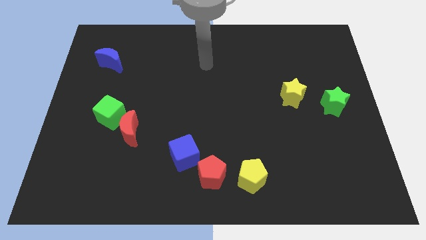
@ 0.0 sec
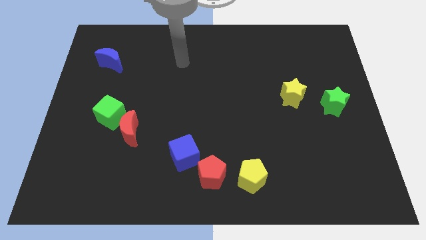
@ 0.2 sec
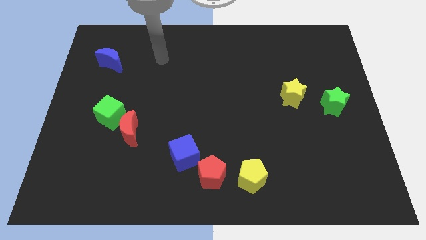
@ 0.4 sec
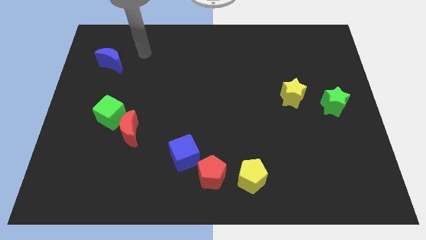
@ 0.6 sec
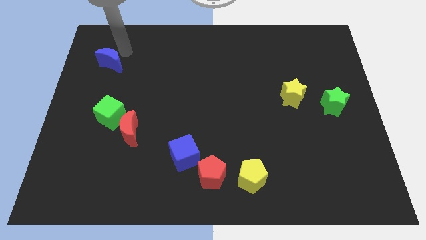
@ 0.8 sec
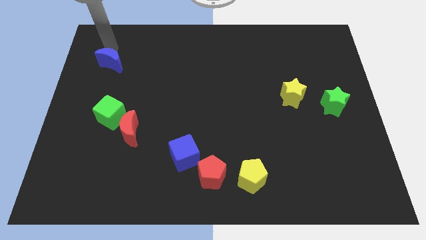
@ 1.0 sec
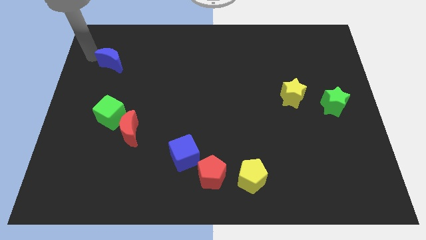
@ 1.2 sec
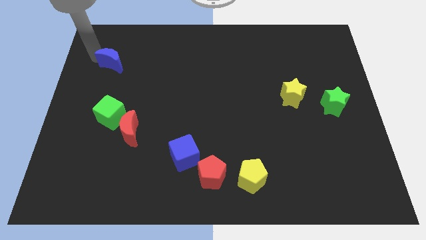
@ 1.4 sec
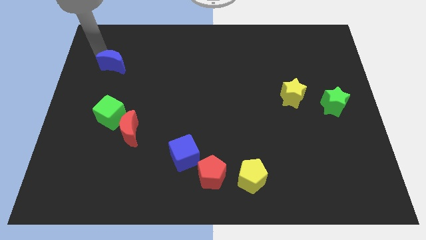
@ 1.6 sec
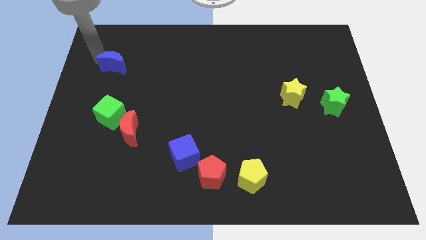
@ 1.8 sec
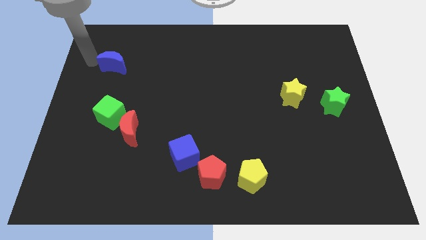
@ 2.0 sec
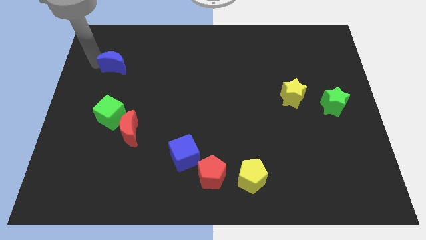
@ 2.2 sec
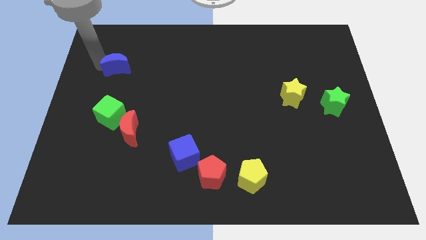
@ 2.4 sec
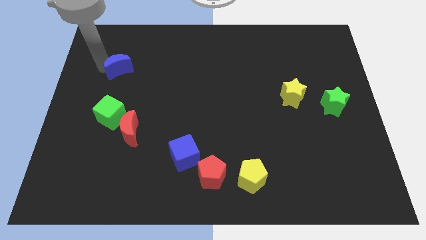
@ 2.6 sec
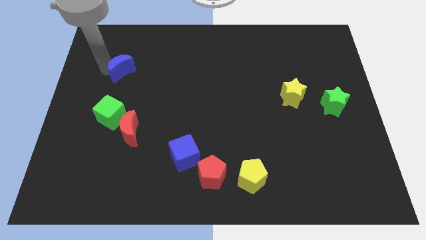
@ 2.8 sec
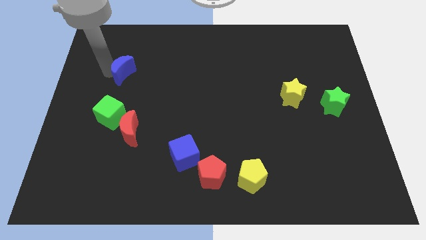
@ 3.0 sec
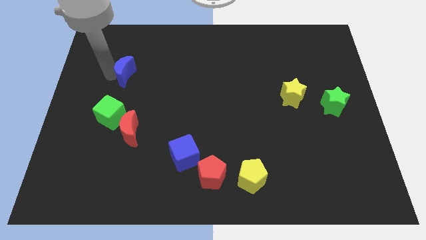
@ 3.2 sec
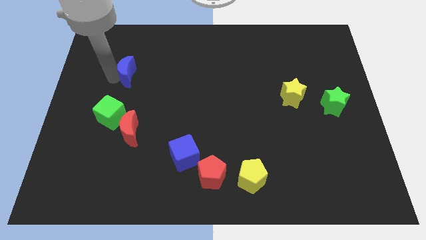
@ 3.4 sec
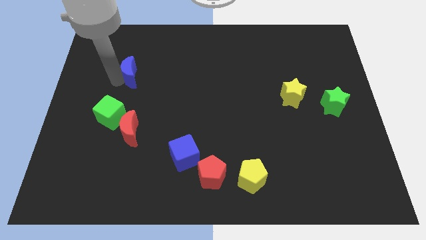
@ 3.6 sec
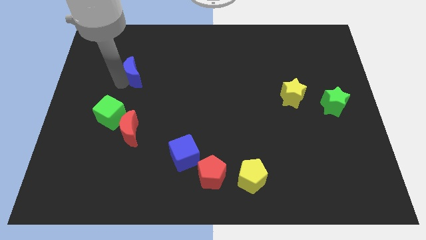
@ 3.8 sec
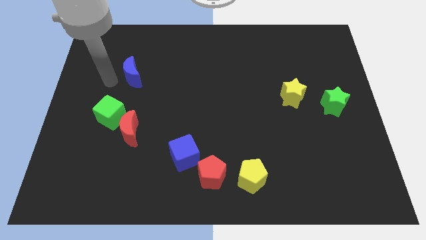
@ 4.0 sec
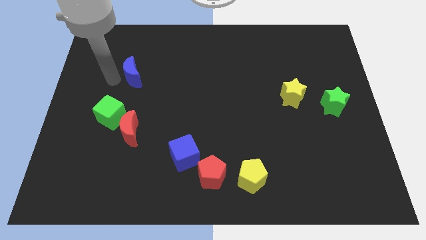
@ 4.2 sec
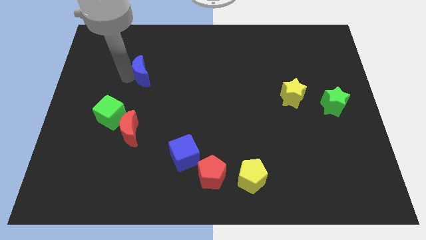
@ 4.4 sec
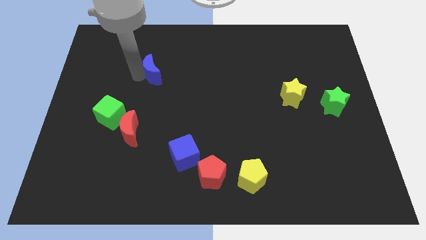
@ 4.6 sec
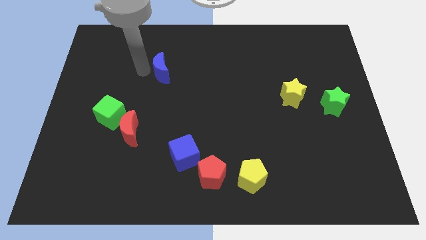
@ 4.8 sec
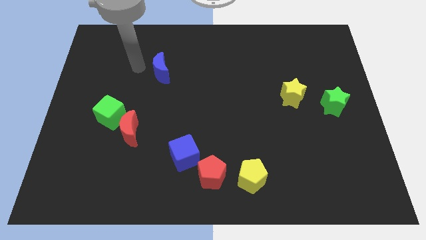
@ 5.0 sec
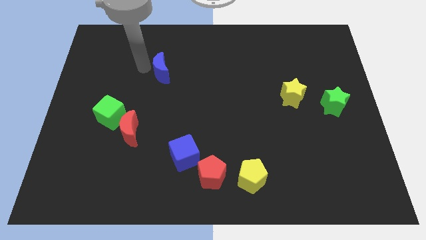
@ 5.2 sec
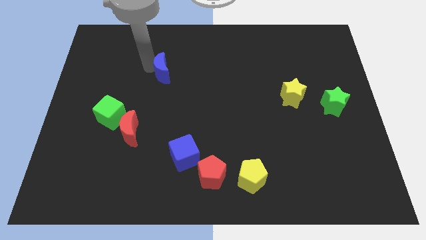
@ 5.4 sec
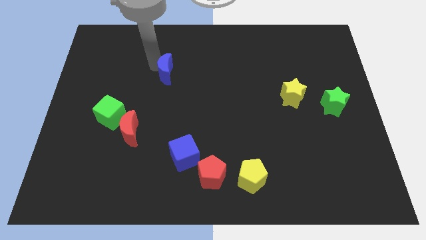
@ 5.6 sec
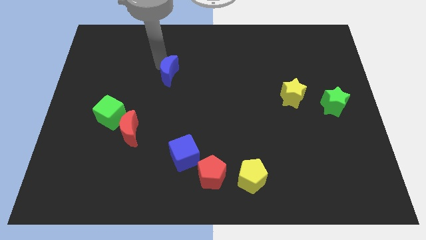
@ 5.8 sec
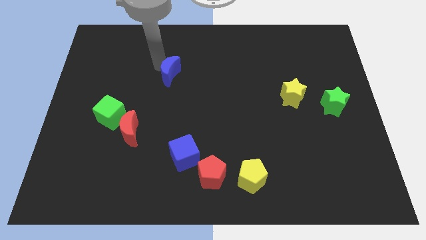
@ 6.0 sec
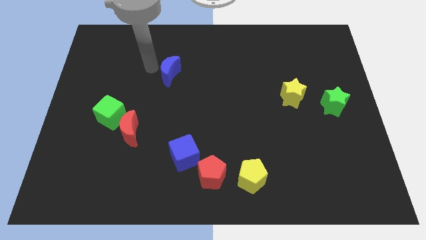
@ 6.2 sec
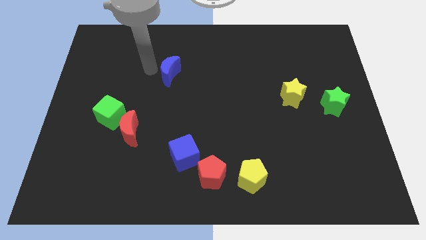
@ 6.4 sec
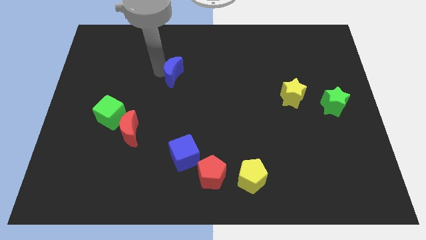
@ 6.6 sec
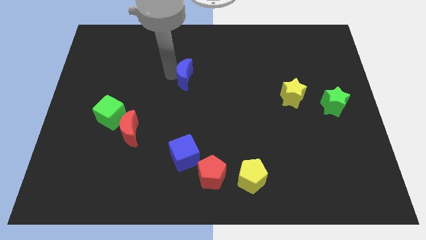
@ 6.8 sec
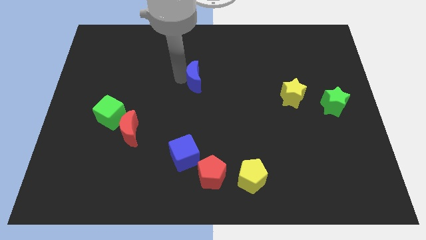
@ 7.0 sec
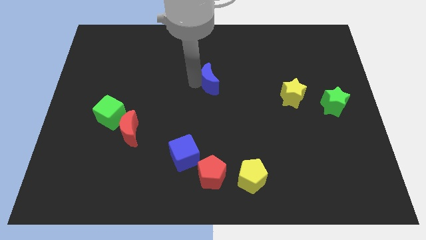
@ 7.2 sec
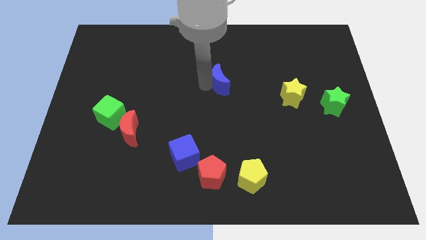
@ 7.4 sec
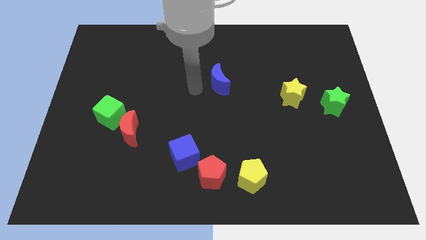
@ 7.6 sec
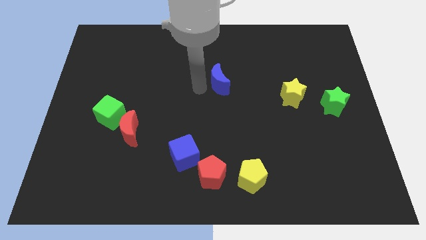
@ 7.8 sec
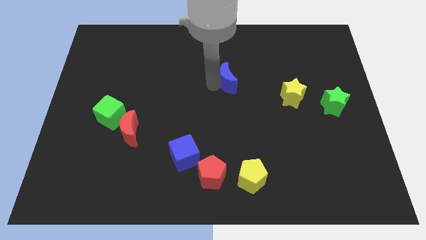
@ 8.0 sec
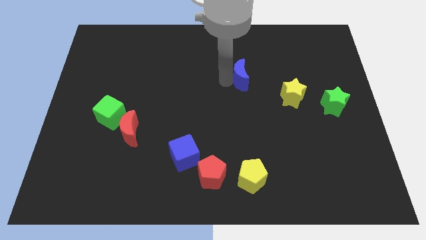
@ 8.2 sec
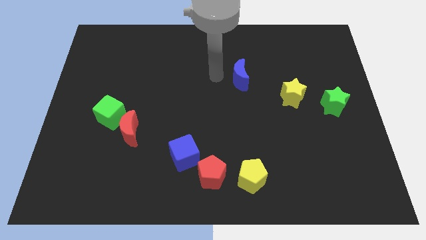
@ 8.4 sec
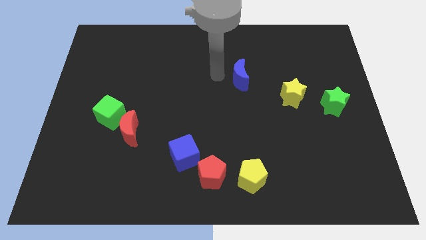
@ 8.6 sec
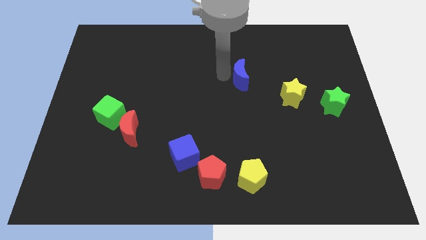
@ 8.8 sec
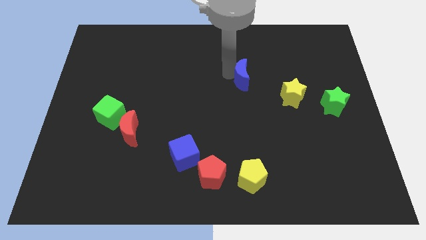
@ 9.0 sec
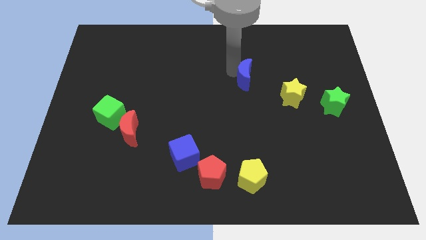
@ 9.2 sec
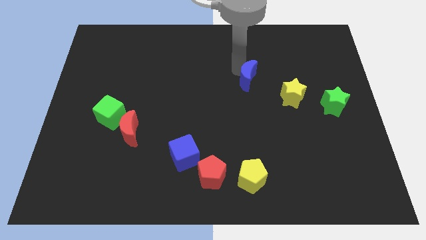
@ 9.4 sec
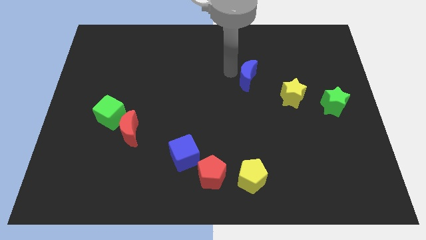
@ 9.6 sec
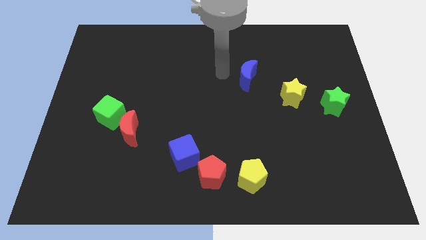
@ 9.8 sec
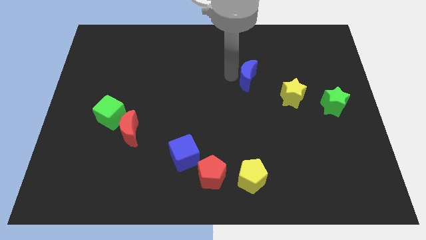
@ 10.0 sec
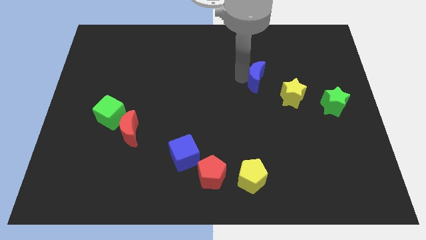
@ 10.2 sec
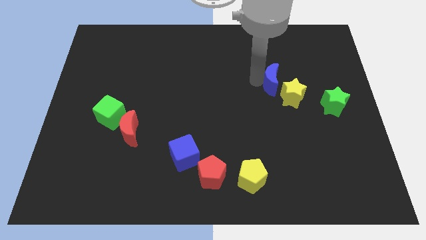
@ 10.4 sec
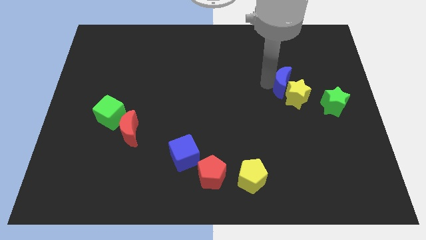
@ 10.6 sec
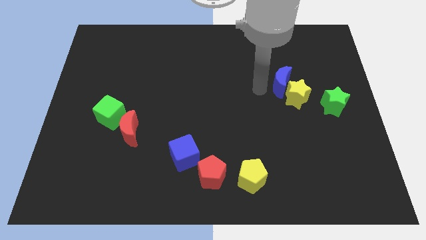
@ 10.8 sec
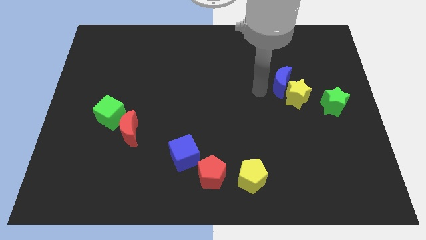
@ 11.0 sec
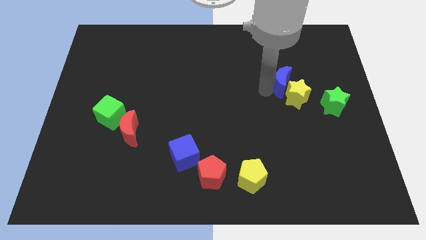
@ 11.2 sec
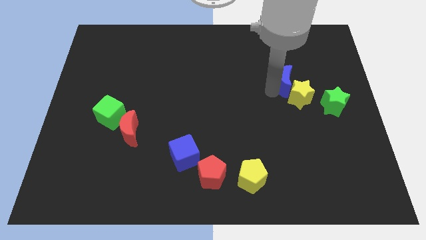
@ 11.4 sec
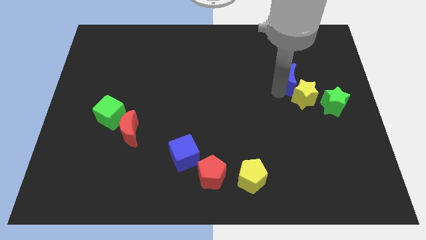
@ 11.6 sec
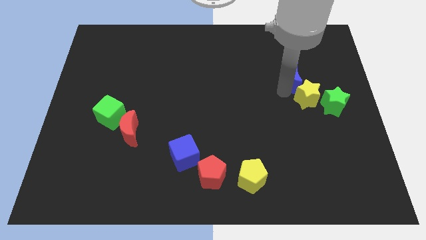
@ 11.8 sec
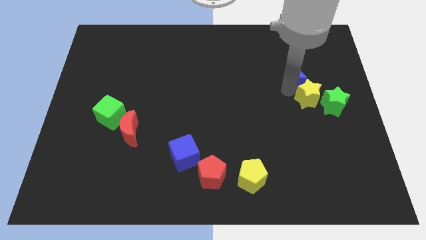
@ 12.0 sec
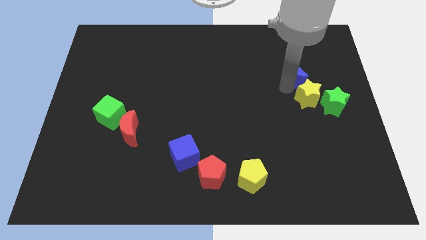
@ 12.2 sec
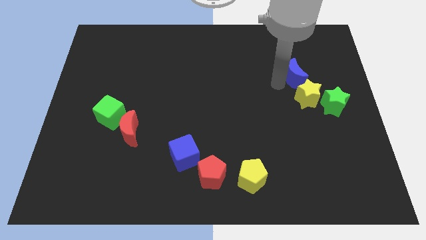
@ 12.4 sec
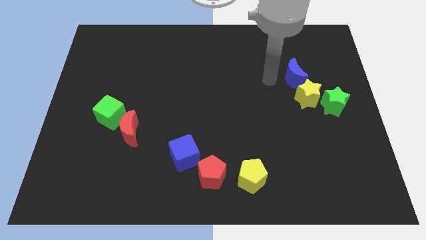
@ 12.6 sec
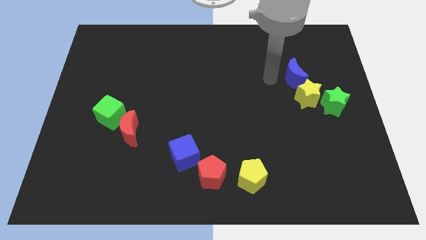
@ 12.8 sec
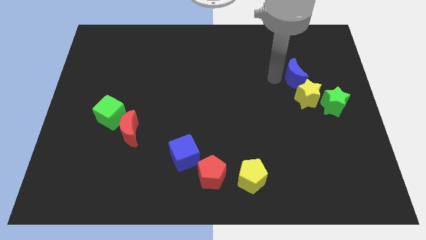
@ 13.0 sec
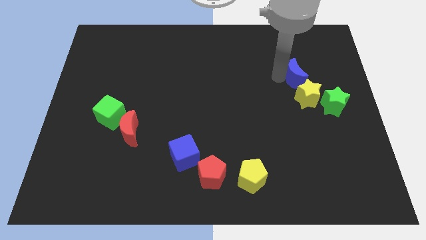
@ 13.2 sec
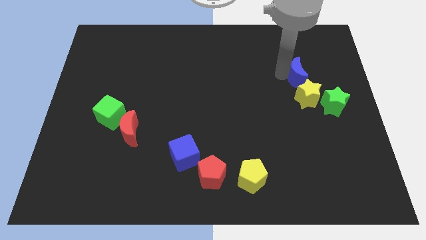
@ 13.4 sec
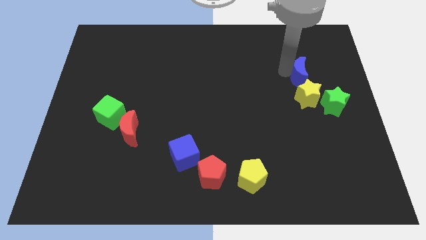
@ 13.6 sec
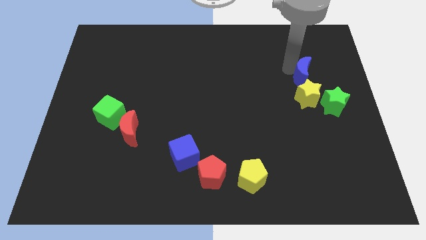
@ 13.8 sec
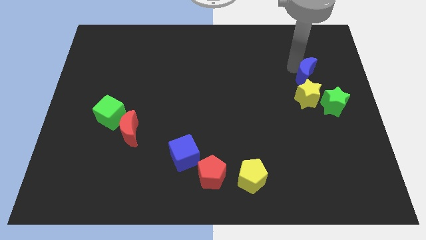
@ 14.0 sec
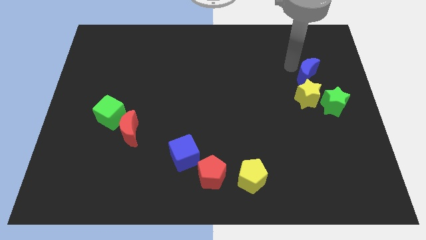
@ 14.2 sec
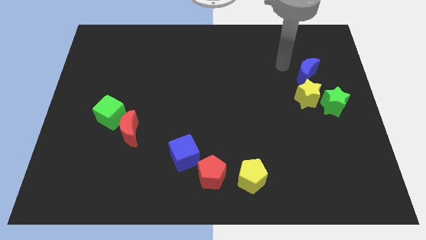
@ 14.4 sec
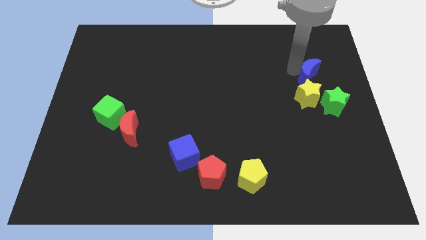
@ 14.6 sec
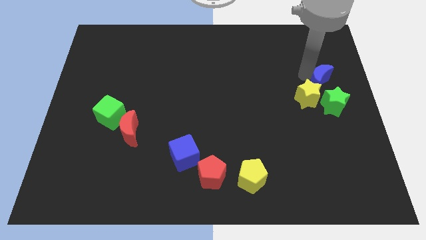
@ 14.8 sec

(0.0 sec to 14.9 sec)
move the blue moon to the right side
